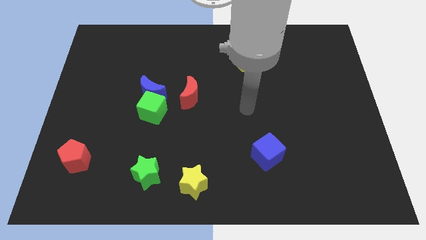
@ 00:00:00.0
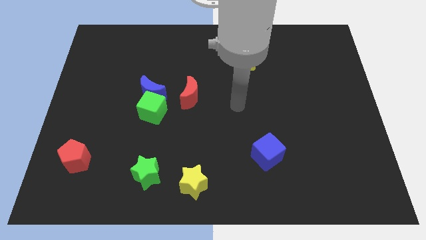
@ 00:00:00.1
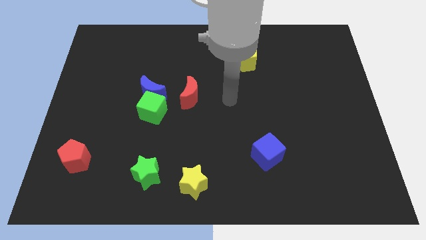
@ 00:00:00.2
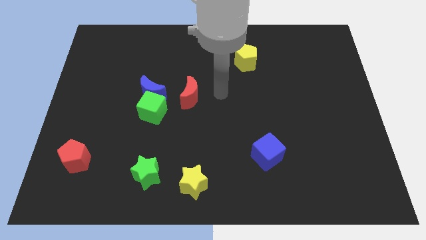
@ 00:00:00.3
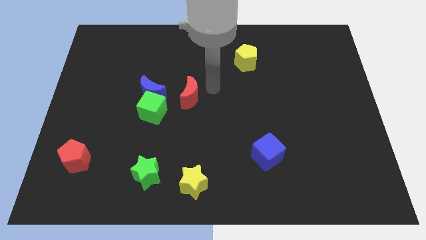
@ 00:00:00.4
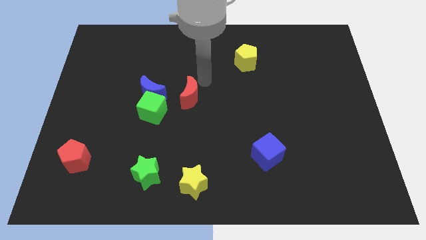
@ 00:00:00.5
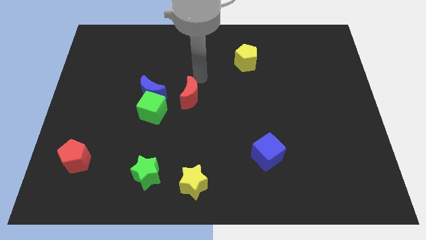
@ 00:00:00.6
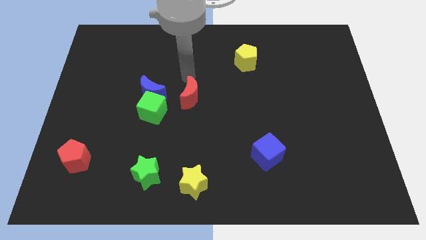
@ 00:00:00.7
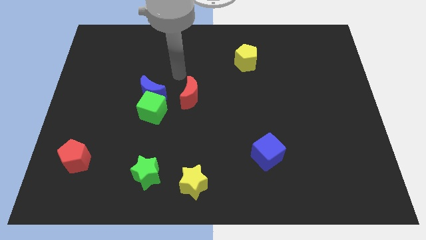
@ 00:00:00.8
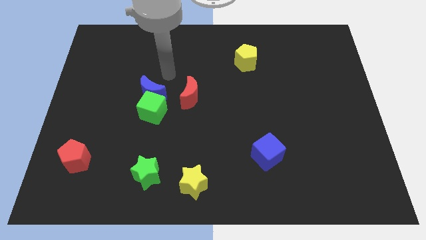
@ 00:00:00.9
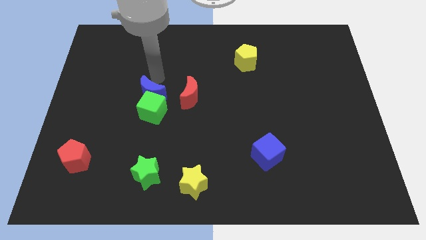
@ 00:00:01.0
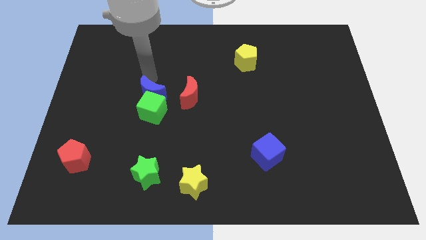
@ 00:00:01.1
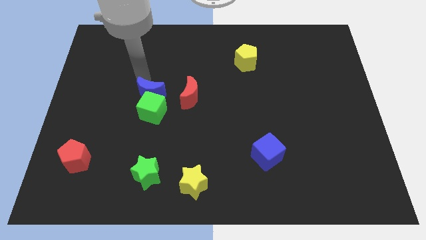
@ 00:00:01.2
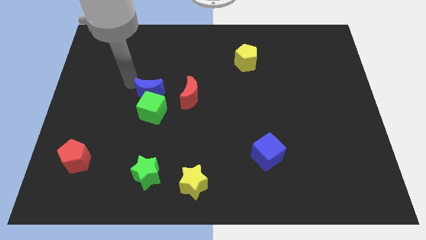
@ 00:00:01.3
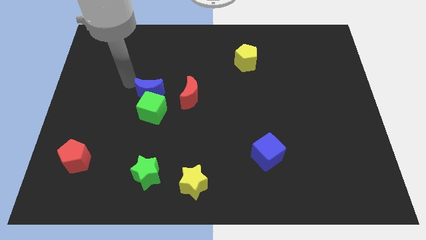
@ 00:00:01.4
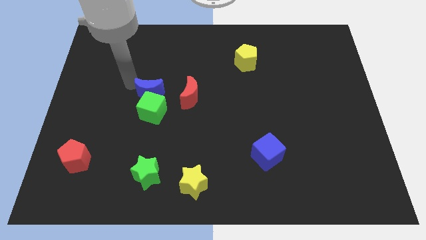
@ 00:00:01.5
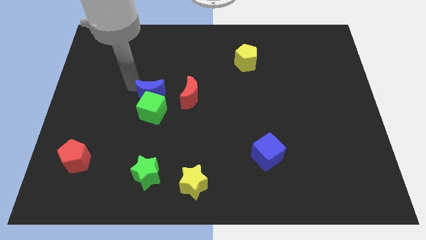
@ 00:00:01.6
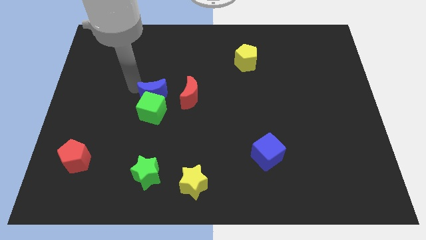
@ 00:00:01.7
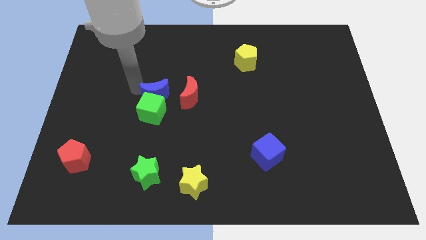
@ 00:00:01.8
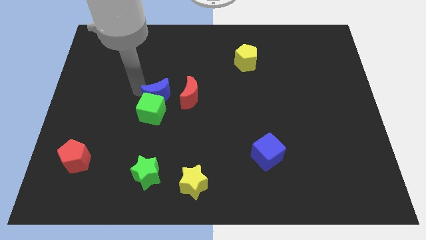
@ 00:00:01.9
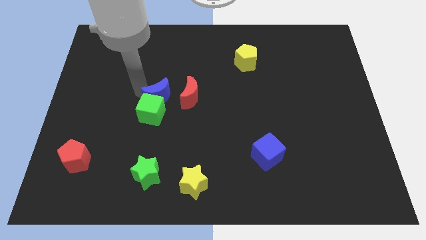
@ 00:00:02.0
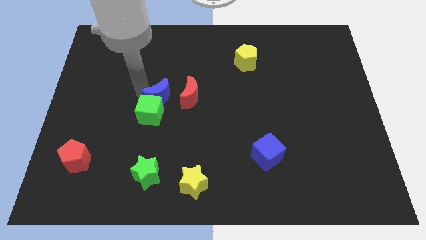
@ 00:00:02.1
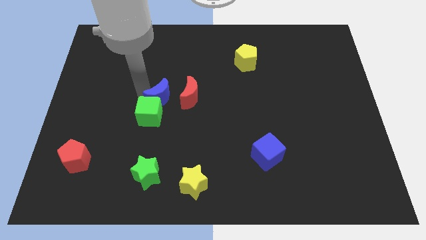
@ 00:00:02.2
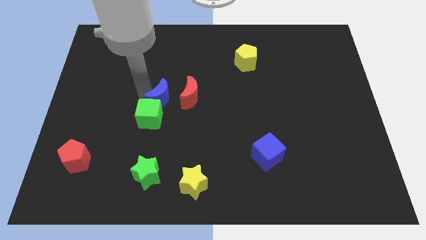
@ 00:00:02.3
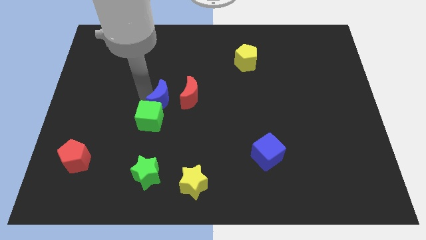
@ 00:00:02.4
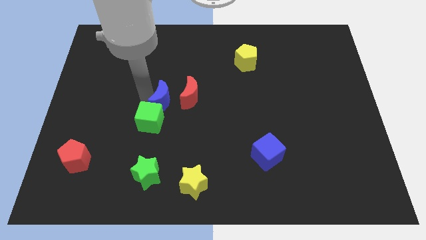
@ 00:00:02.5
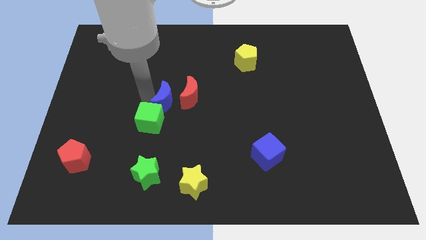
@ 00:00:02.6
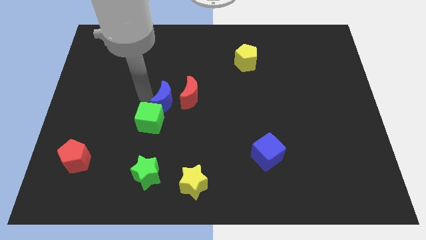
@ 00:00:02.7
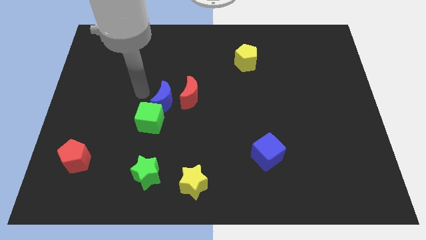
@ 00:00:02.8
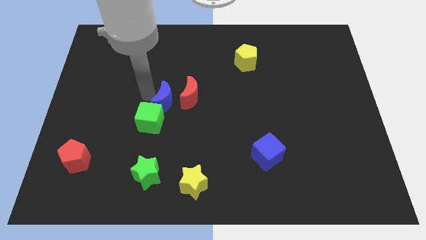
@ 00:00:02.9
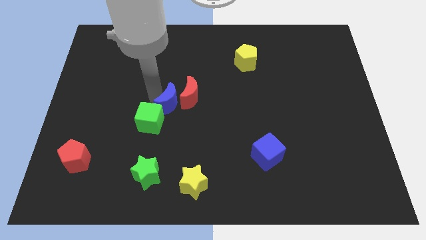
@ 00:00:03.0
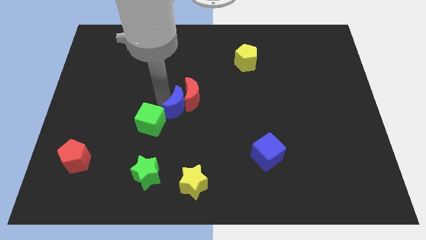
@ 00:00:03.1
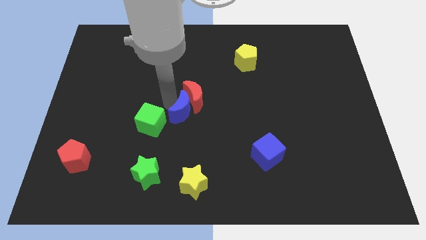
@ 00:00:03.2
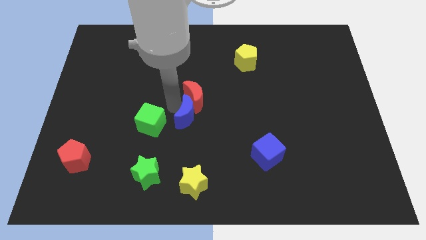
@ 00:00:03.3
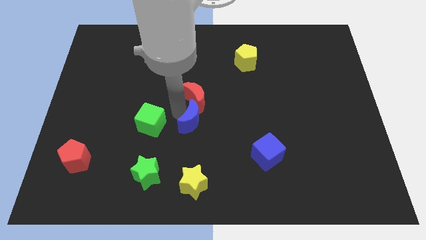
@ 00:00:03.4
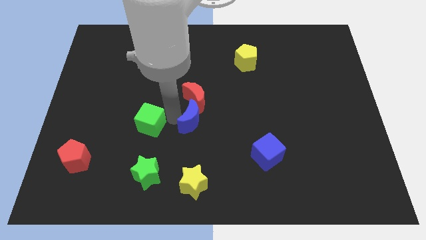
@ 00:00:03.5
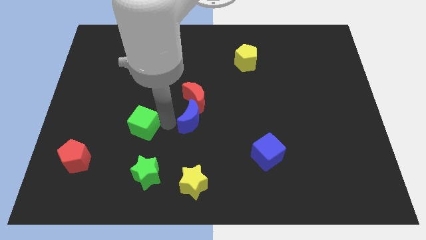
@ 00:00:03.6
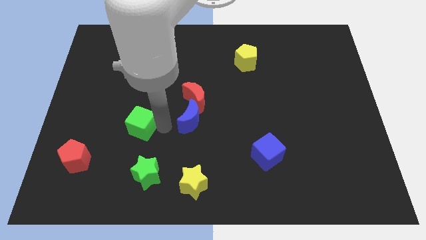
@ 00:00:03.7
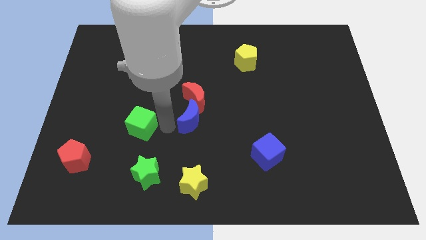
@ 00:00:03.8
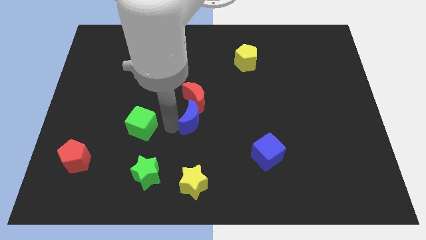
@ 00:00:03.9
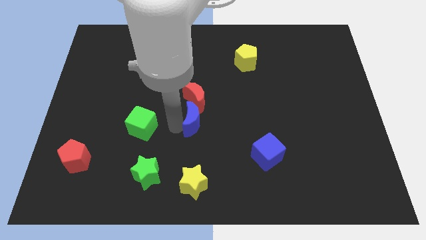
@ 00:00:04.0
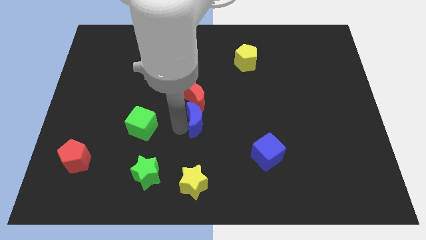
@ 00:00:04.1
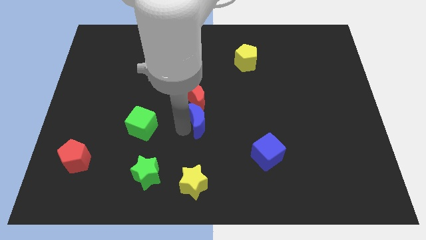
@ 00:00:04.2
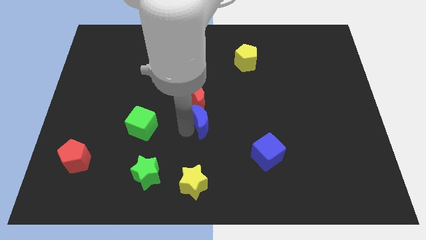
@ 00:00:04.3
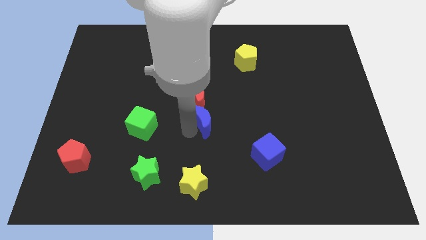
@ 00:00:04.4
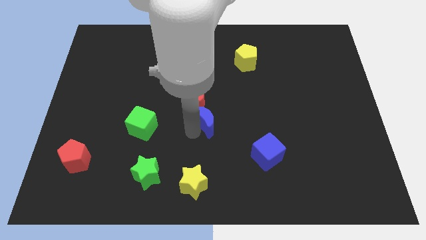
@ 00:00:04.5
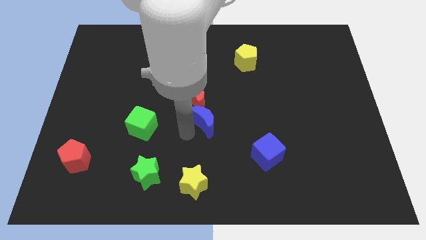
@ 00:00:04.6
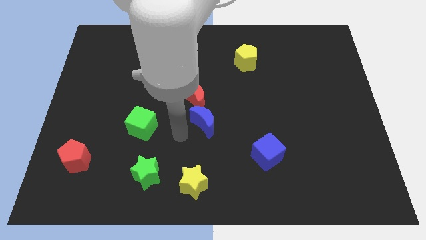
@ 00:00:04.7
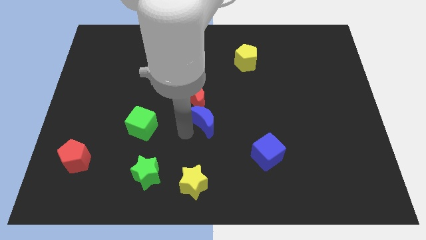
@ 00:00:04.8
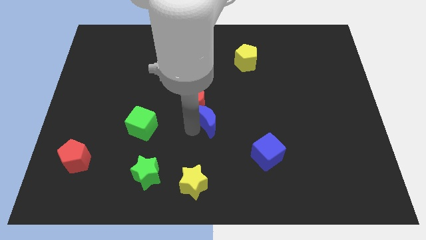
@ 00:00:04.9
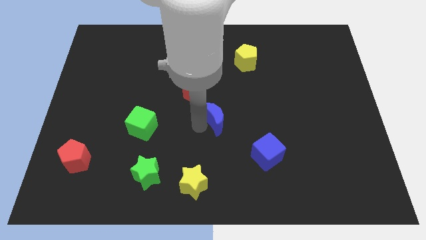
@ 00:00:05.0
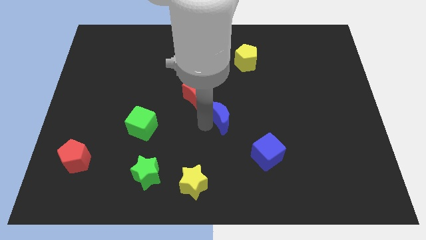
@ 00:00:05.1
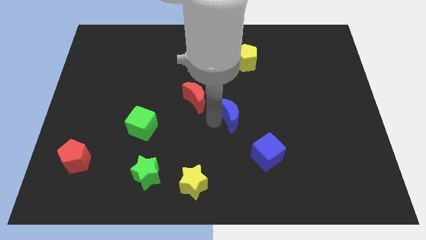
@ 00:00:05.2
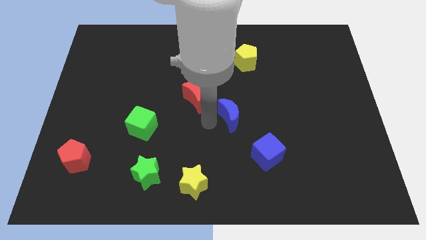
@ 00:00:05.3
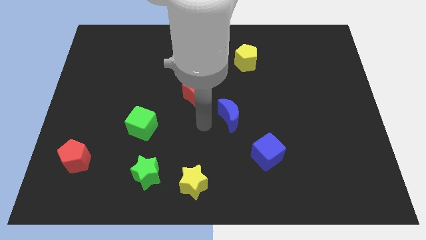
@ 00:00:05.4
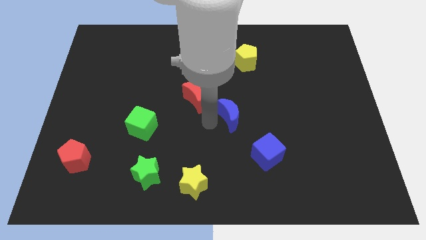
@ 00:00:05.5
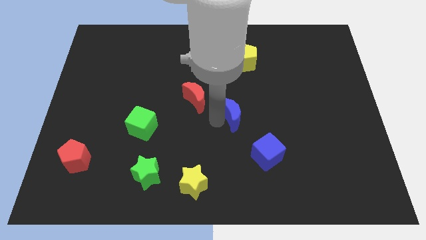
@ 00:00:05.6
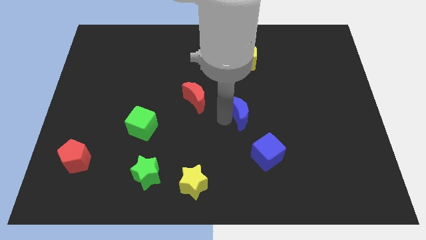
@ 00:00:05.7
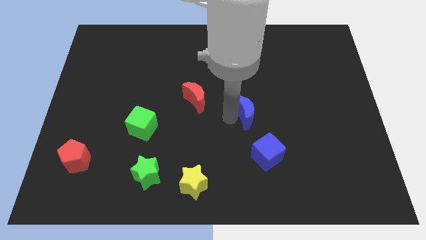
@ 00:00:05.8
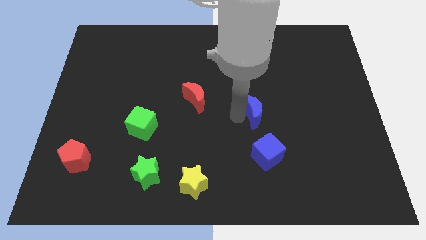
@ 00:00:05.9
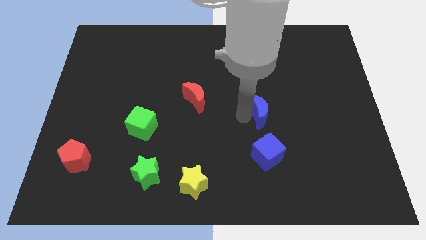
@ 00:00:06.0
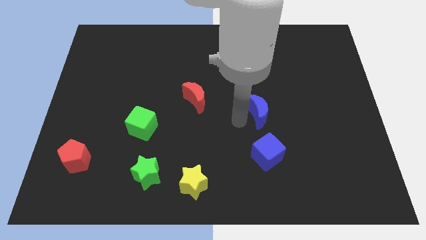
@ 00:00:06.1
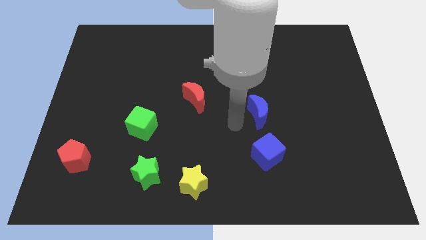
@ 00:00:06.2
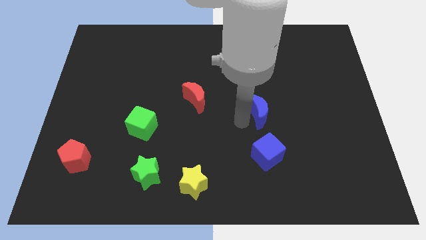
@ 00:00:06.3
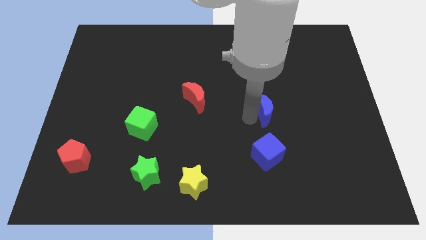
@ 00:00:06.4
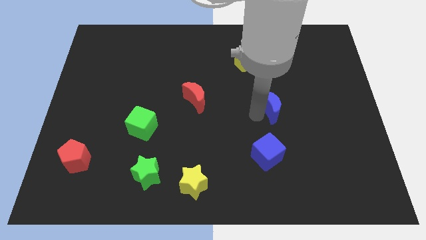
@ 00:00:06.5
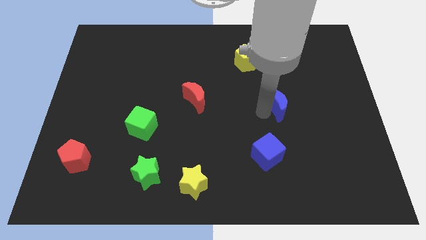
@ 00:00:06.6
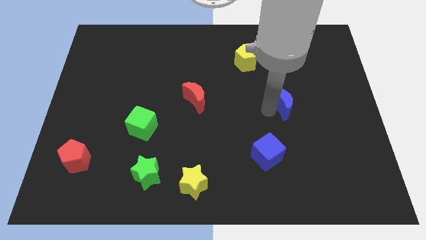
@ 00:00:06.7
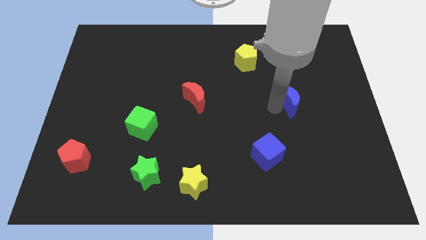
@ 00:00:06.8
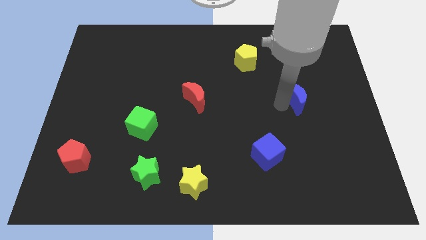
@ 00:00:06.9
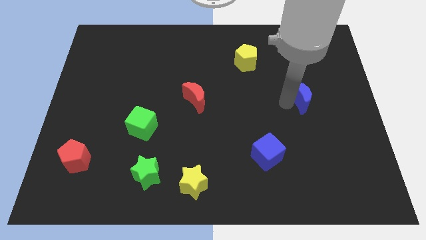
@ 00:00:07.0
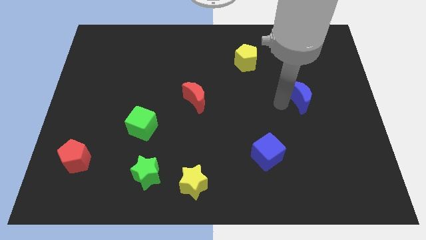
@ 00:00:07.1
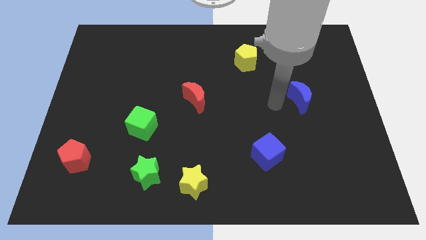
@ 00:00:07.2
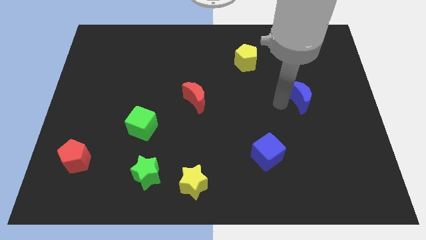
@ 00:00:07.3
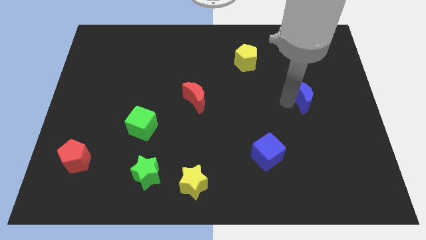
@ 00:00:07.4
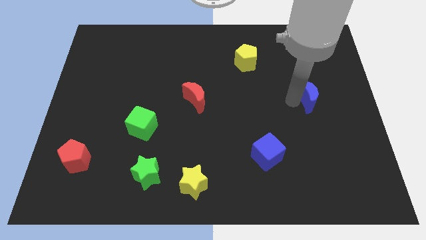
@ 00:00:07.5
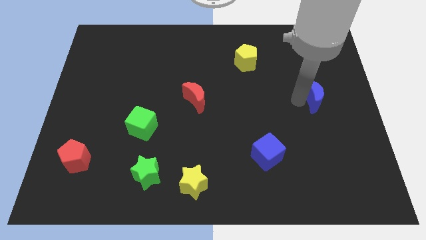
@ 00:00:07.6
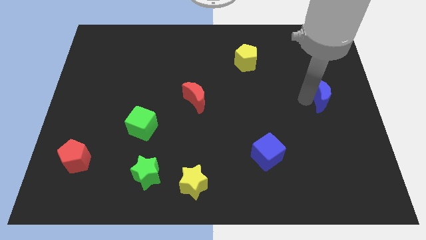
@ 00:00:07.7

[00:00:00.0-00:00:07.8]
slide the blue moon to the right side

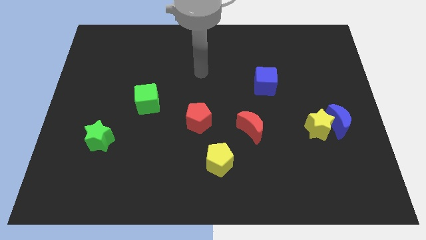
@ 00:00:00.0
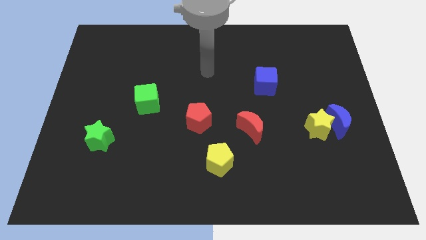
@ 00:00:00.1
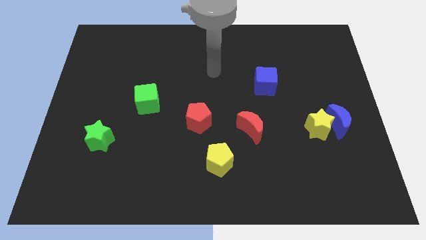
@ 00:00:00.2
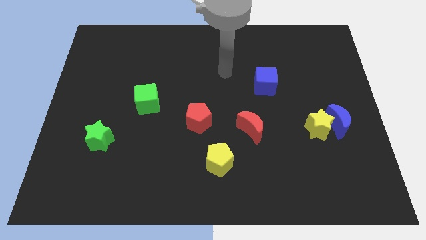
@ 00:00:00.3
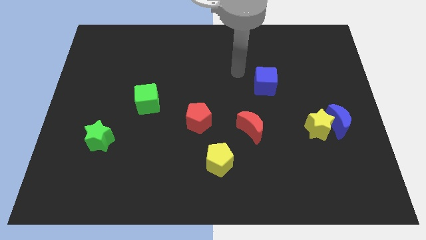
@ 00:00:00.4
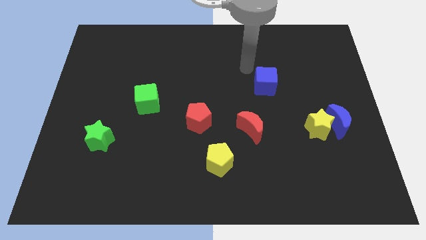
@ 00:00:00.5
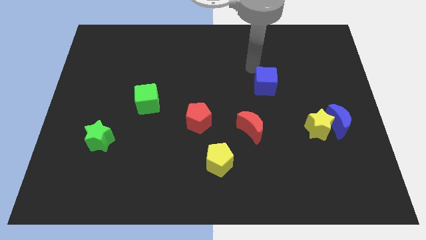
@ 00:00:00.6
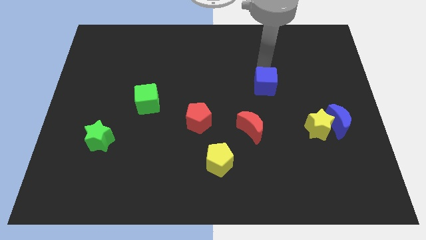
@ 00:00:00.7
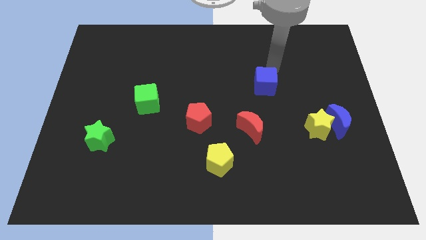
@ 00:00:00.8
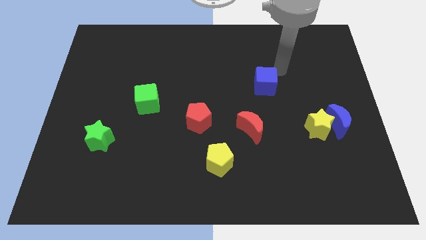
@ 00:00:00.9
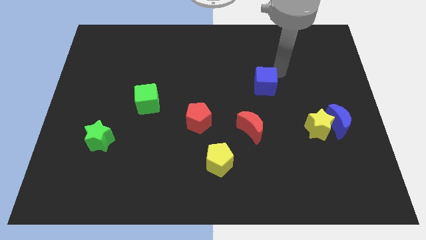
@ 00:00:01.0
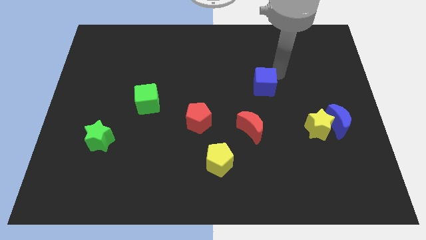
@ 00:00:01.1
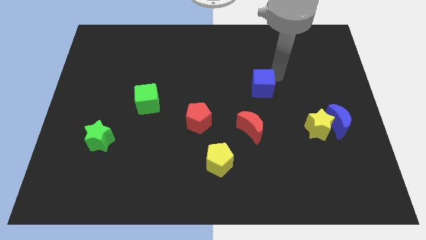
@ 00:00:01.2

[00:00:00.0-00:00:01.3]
move the blue cube to the middle of the board
